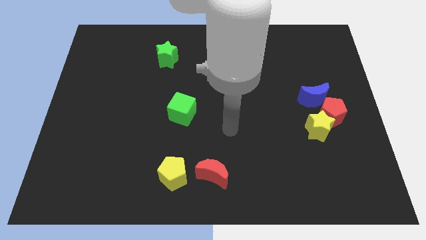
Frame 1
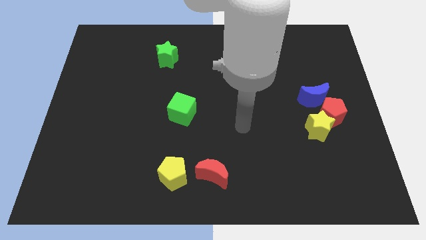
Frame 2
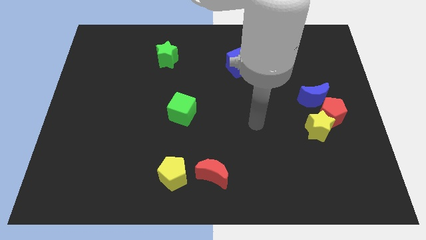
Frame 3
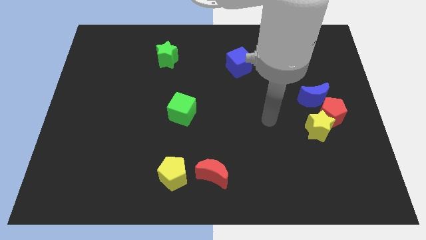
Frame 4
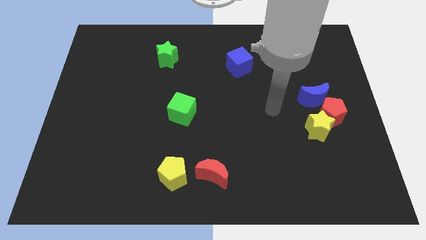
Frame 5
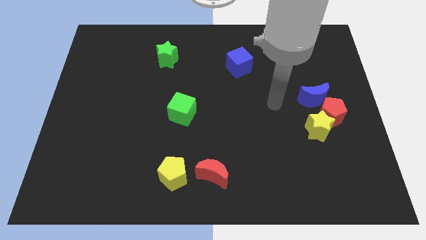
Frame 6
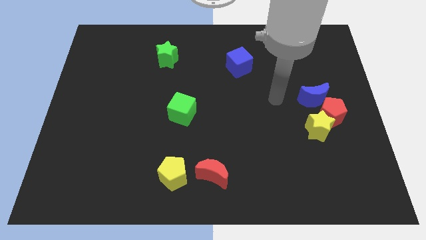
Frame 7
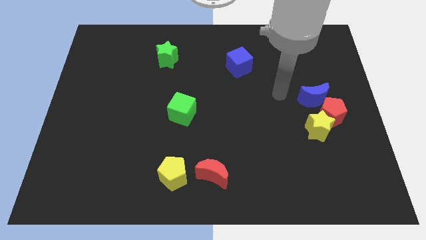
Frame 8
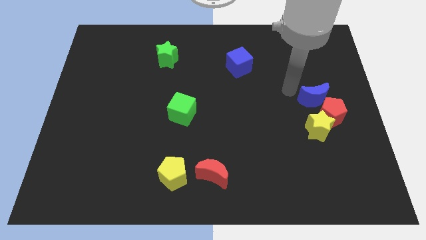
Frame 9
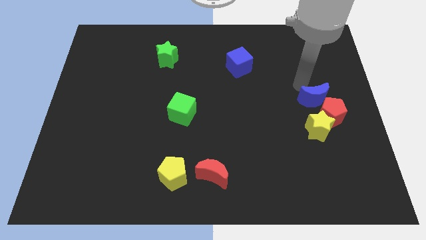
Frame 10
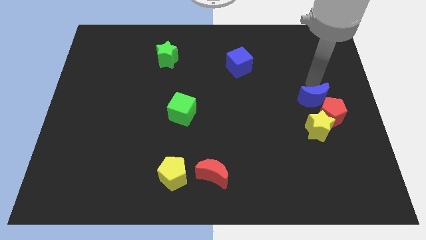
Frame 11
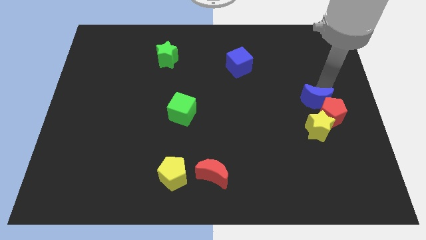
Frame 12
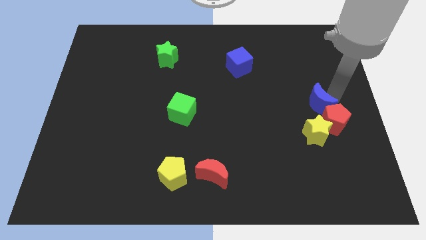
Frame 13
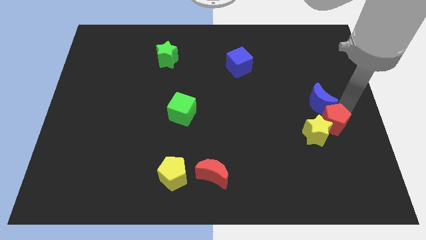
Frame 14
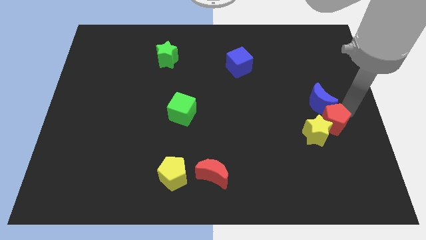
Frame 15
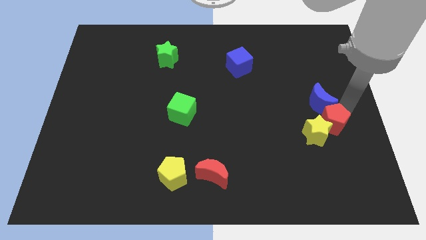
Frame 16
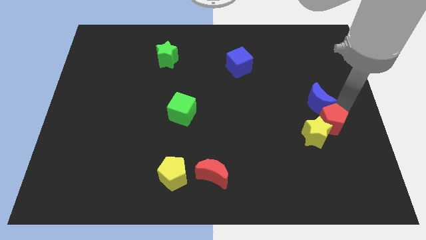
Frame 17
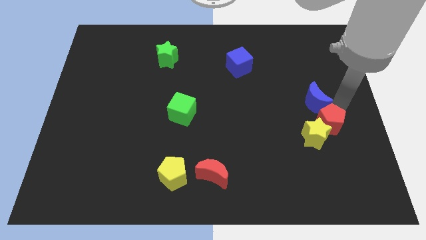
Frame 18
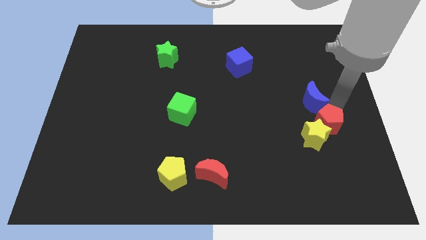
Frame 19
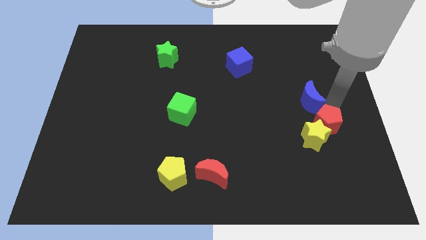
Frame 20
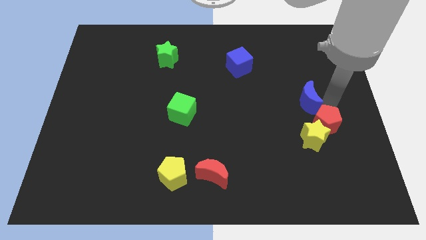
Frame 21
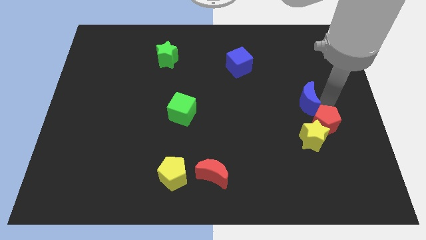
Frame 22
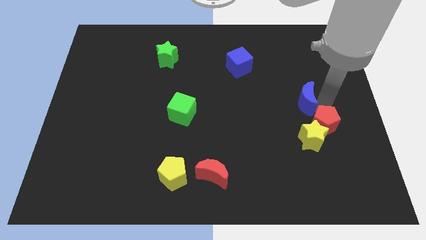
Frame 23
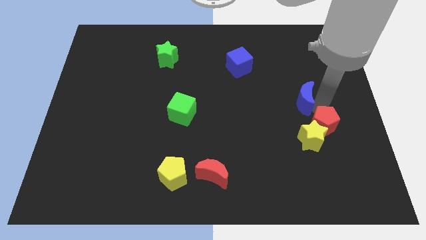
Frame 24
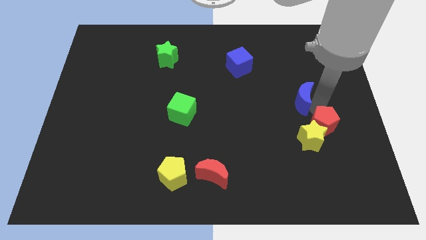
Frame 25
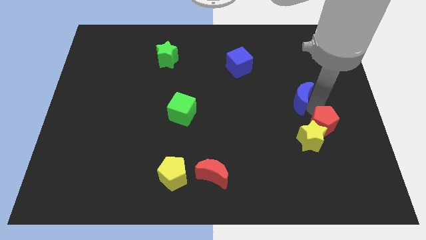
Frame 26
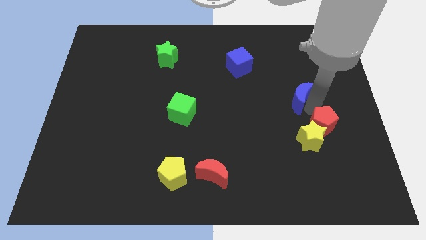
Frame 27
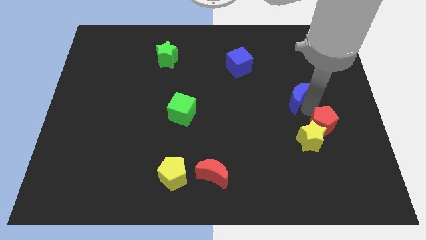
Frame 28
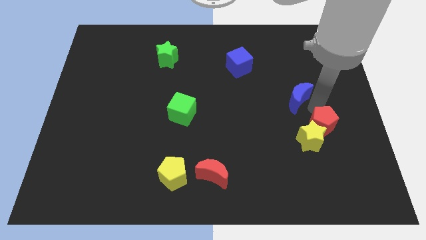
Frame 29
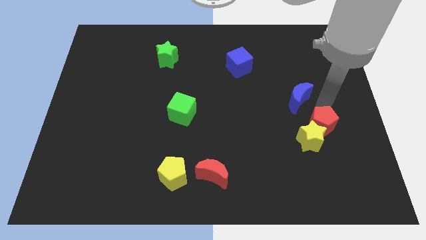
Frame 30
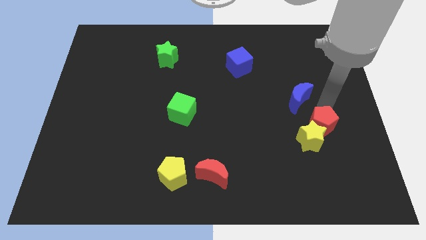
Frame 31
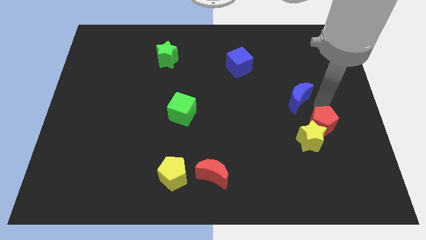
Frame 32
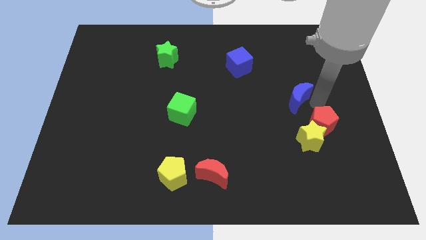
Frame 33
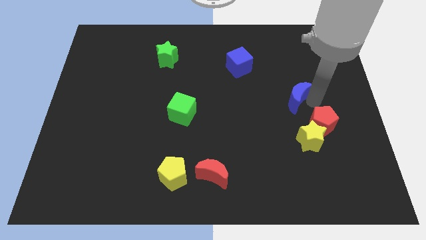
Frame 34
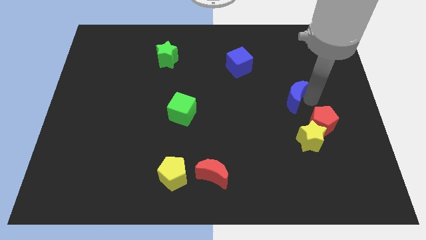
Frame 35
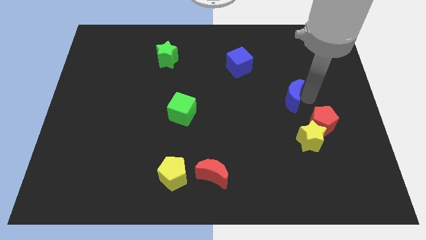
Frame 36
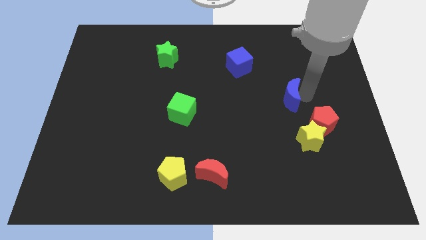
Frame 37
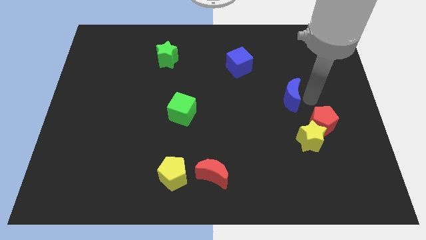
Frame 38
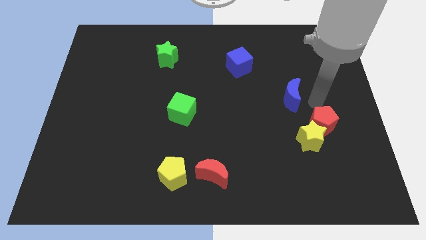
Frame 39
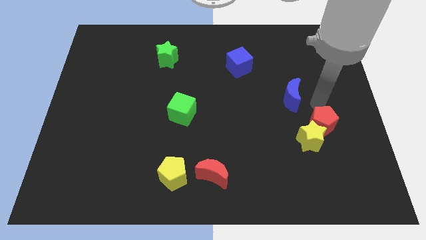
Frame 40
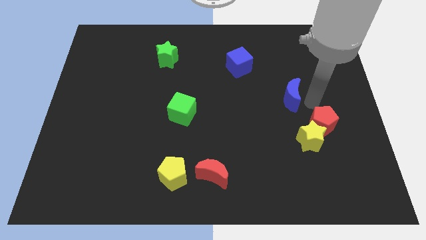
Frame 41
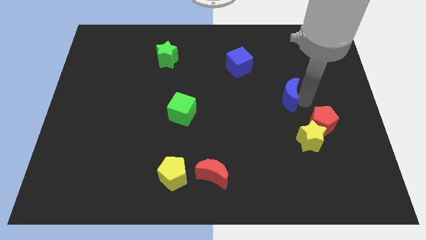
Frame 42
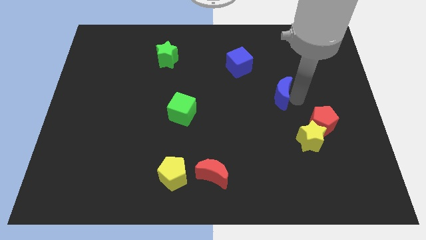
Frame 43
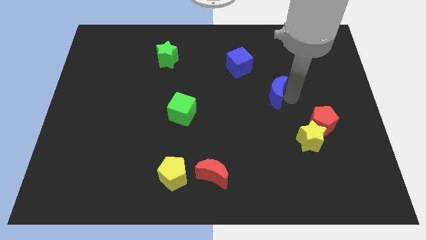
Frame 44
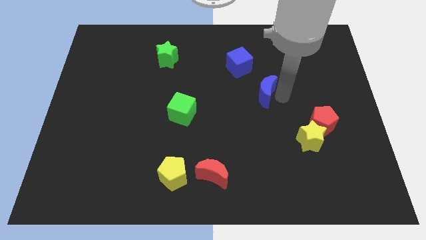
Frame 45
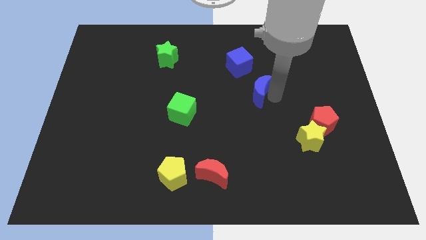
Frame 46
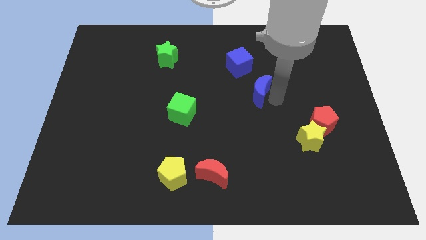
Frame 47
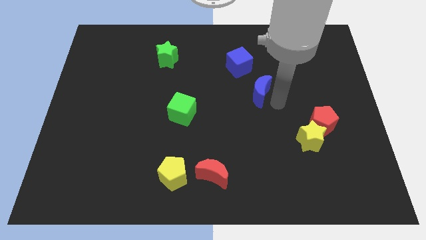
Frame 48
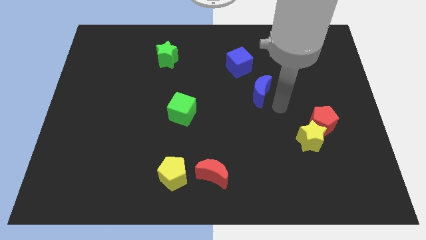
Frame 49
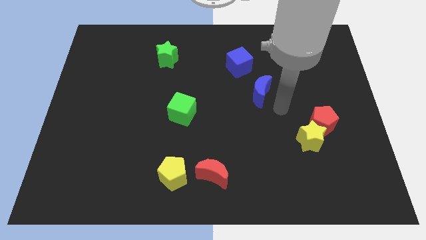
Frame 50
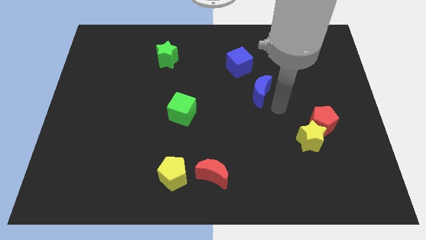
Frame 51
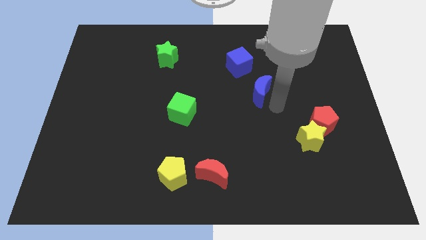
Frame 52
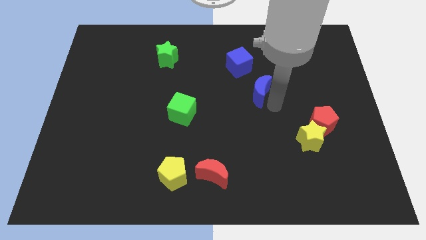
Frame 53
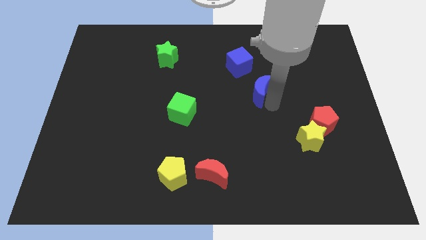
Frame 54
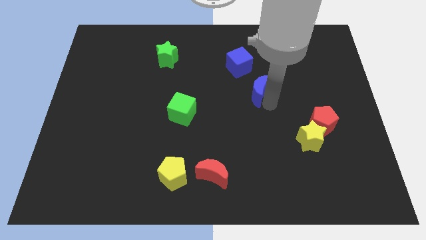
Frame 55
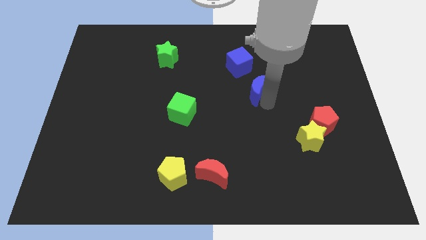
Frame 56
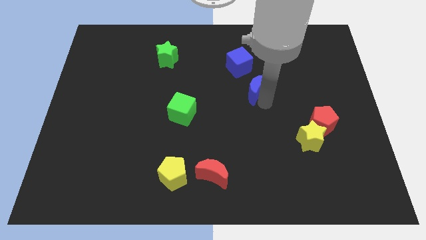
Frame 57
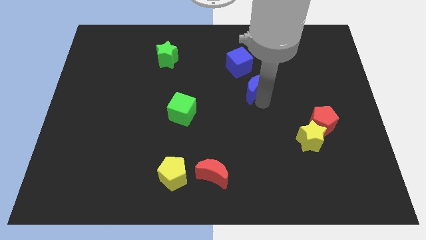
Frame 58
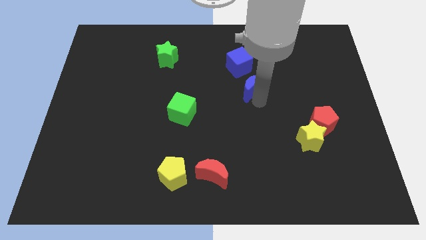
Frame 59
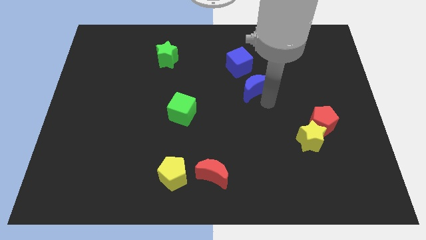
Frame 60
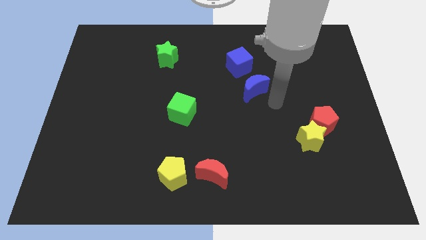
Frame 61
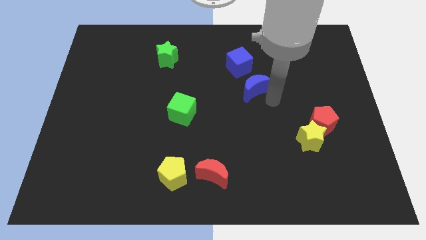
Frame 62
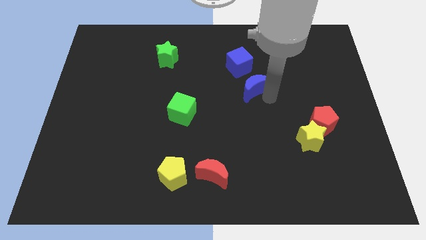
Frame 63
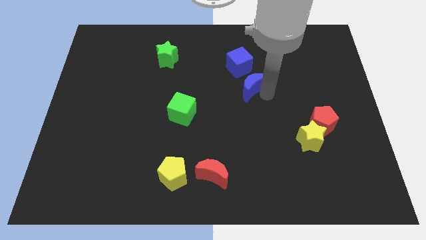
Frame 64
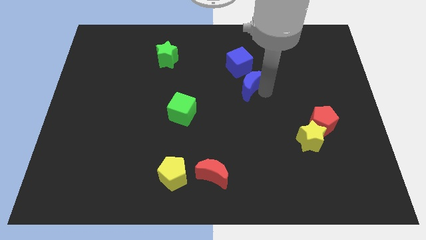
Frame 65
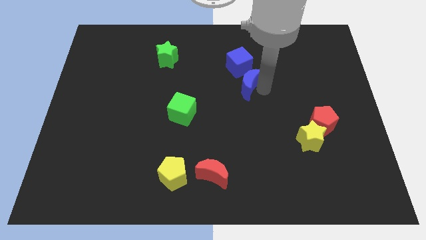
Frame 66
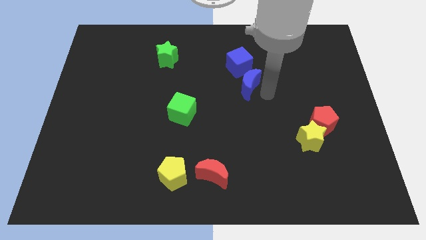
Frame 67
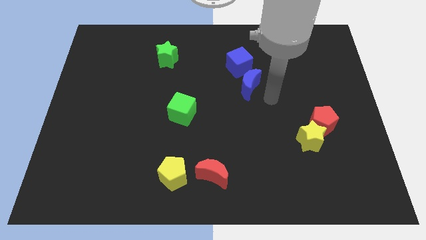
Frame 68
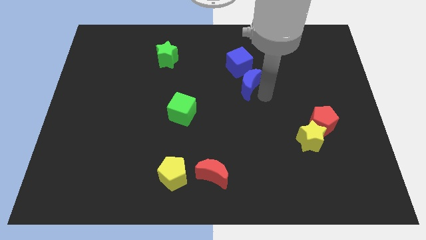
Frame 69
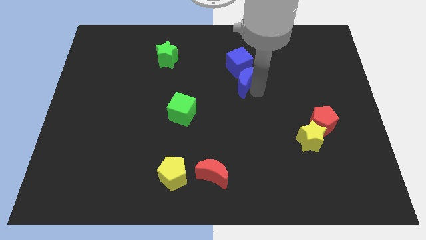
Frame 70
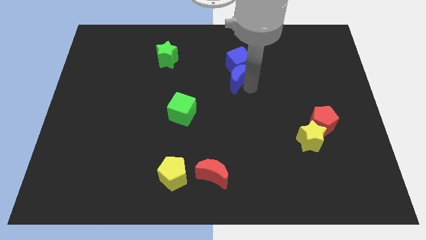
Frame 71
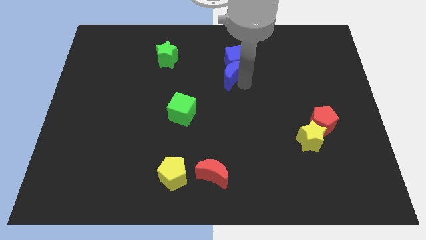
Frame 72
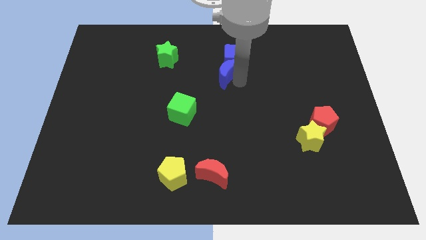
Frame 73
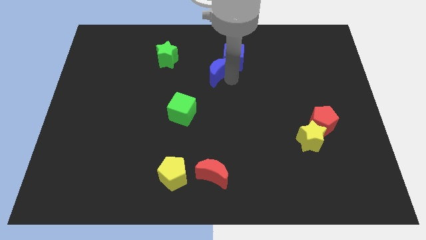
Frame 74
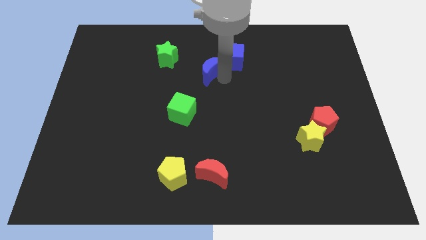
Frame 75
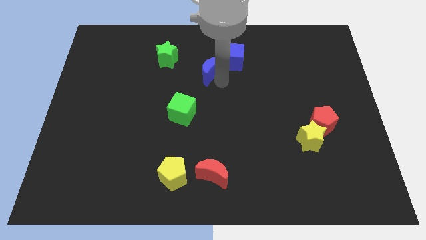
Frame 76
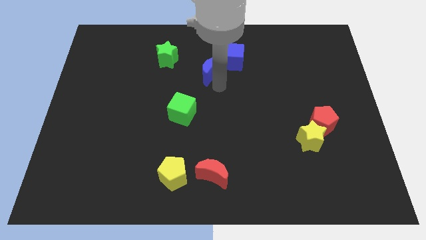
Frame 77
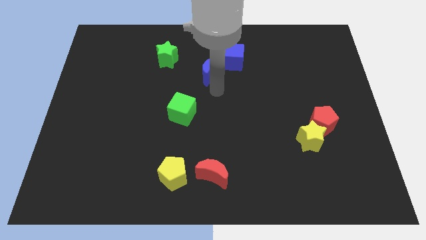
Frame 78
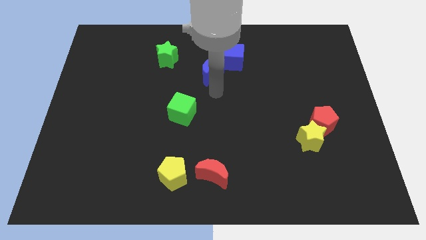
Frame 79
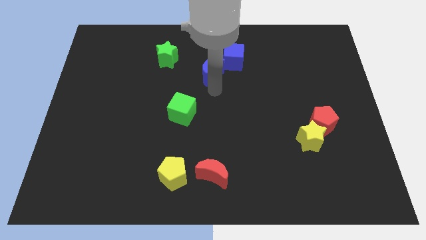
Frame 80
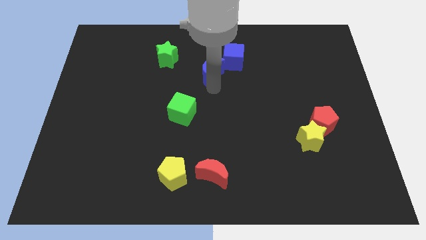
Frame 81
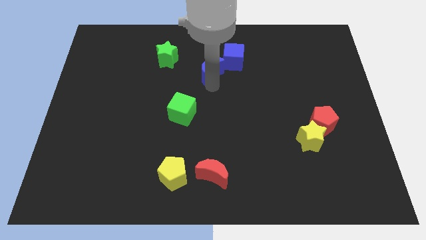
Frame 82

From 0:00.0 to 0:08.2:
put the blue moon just right of the green star
